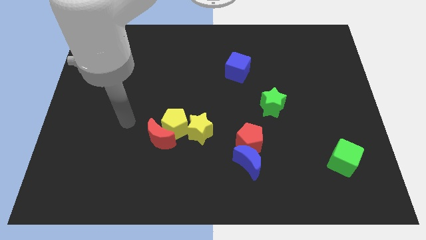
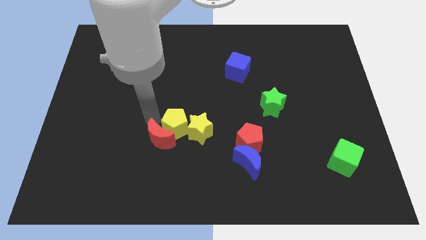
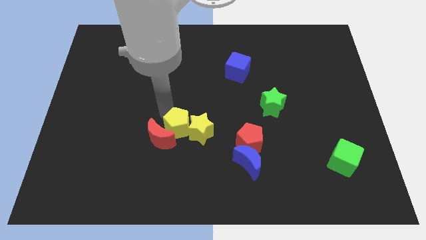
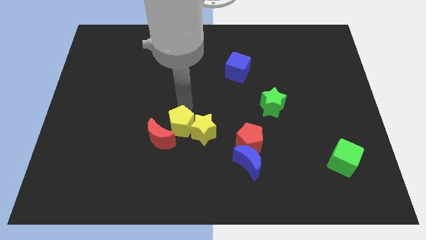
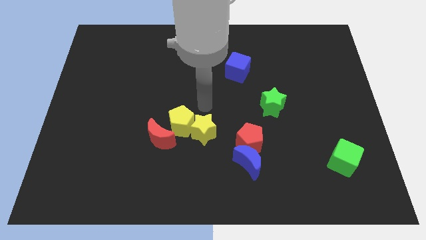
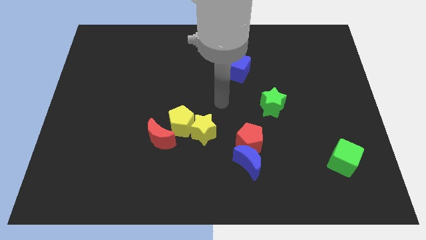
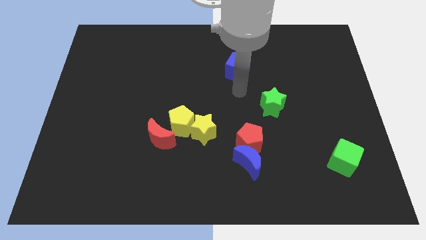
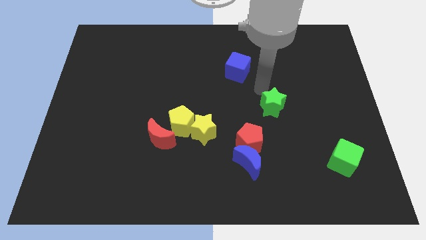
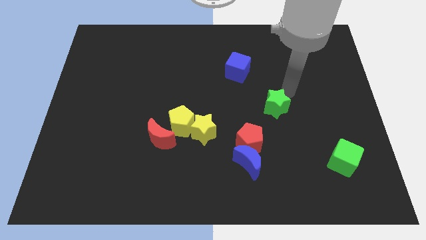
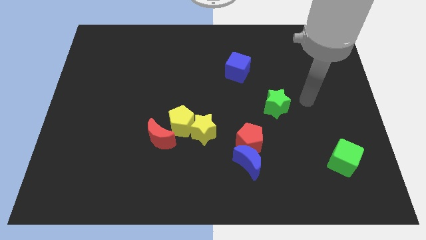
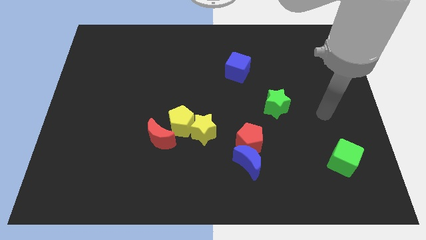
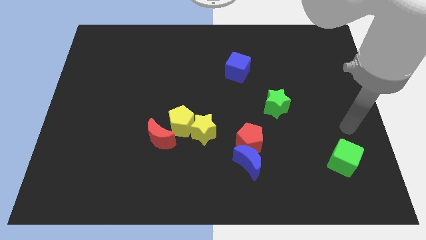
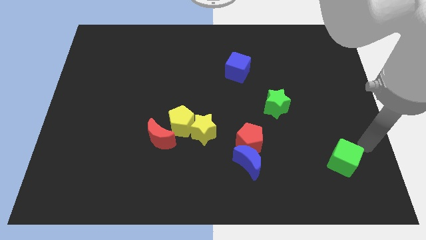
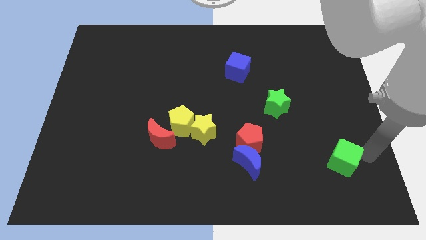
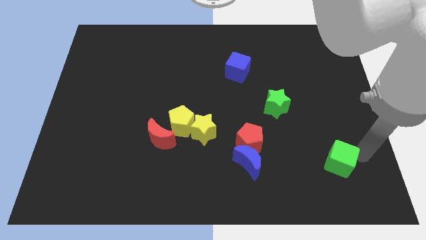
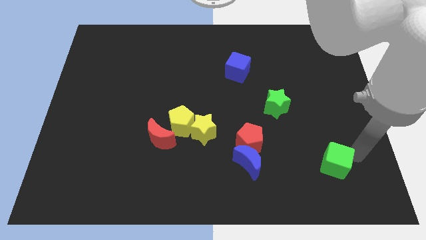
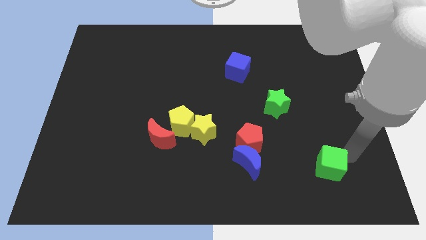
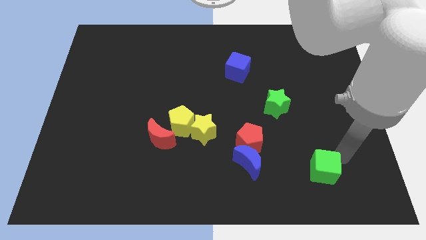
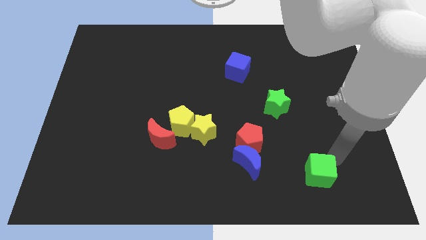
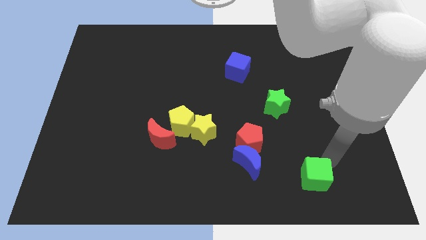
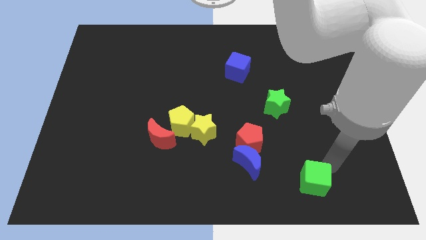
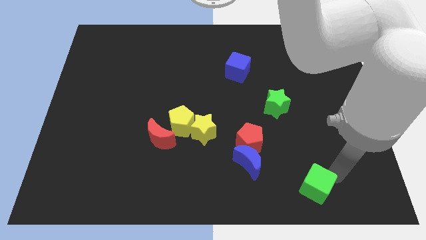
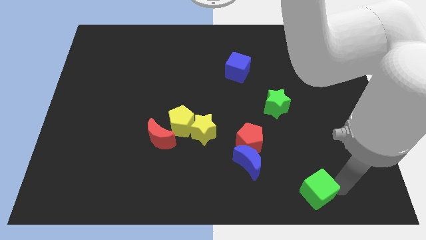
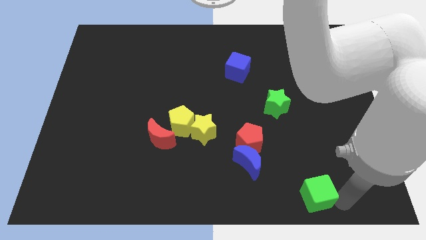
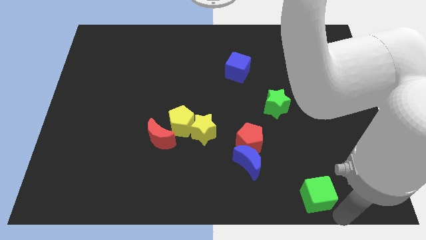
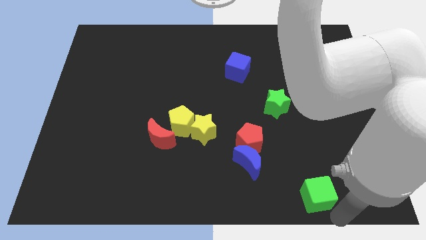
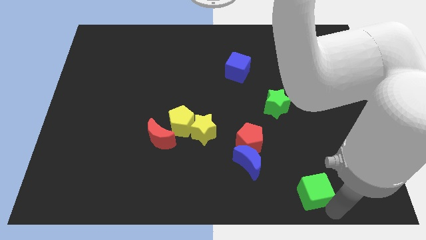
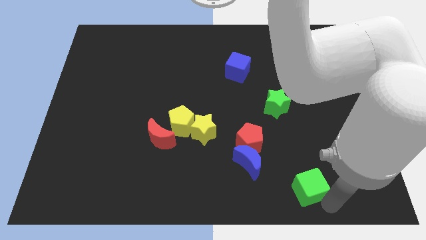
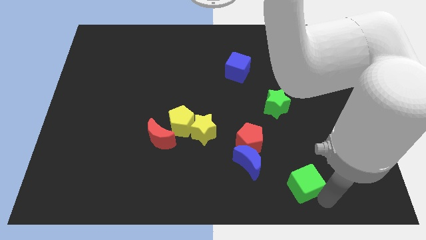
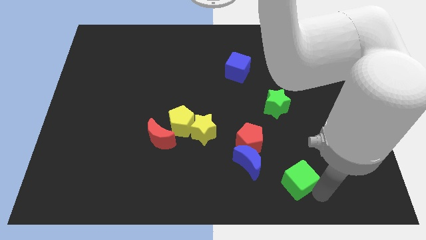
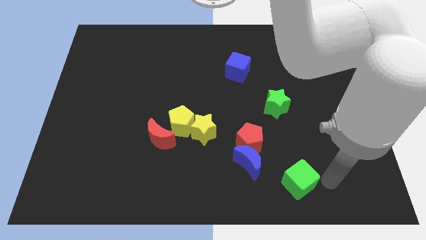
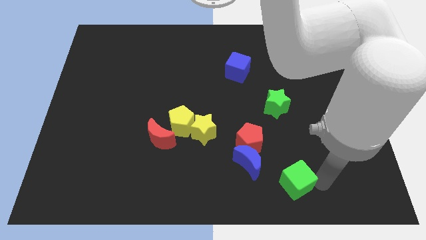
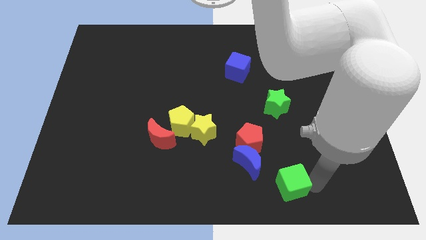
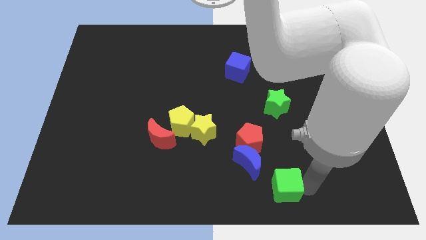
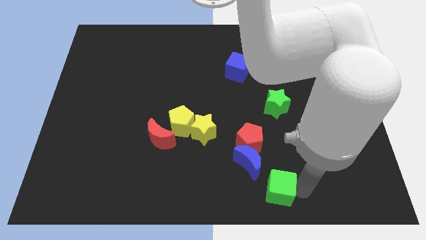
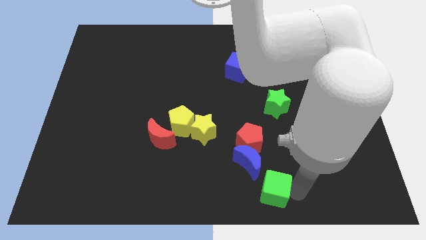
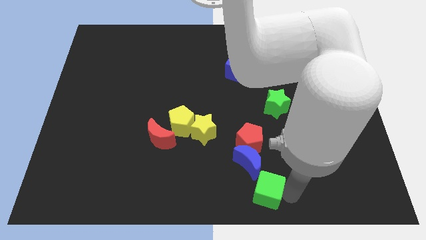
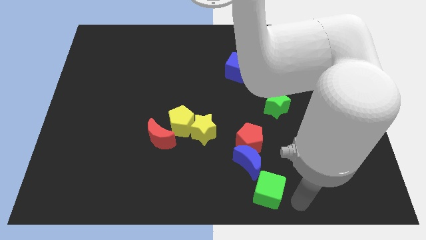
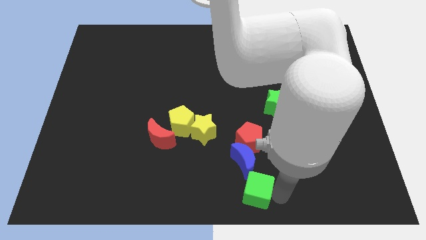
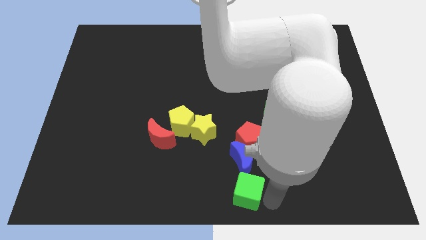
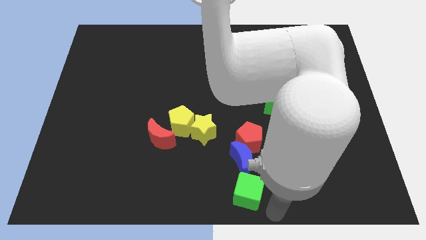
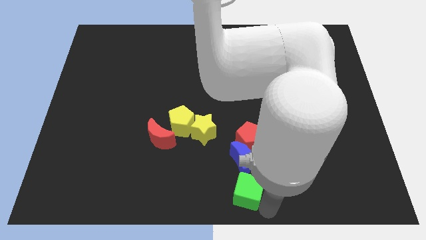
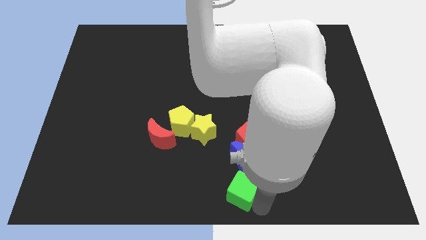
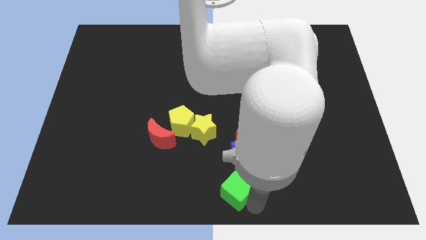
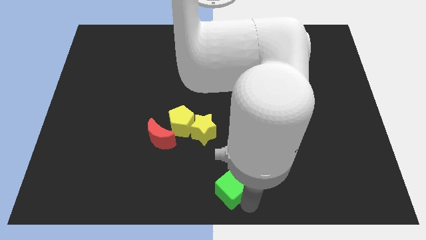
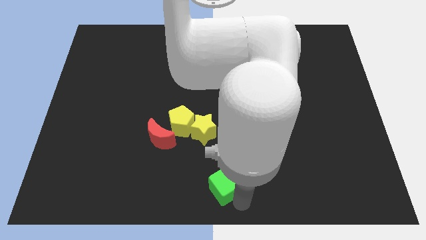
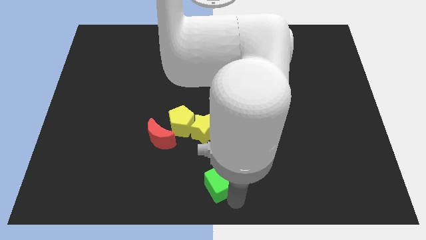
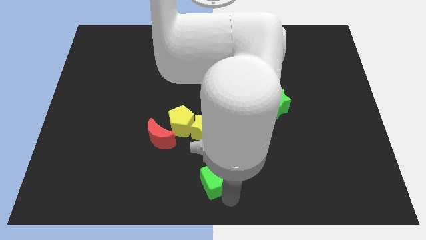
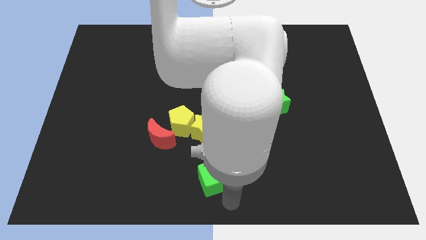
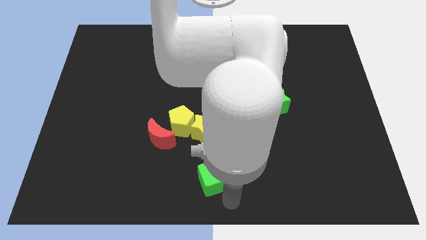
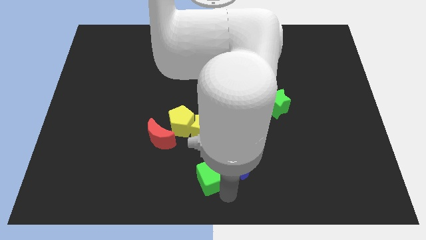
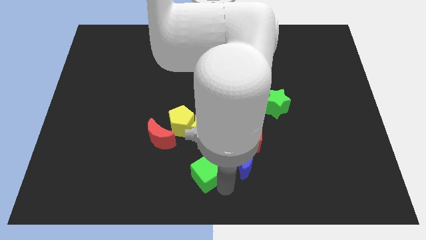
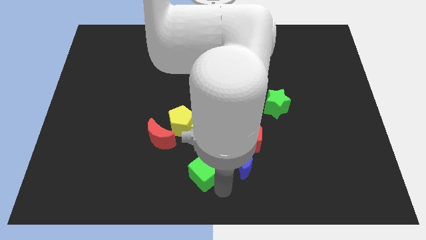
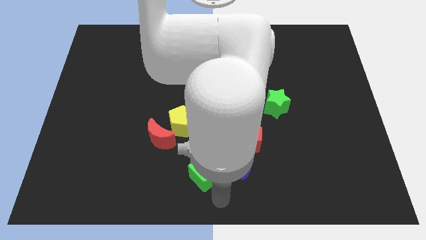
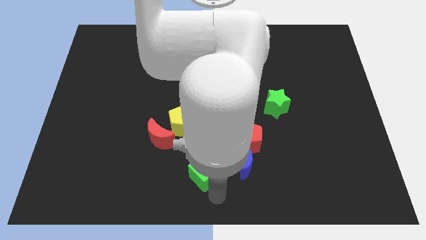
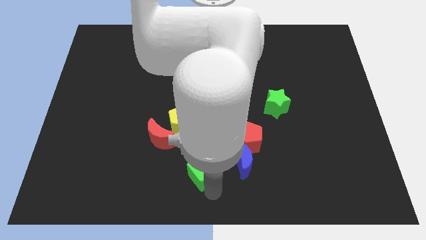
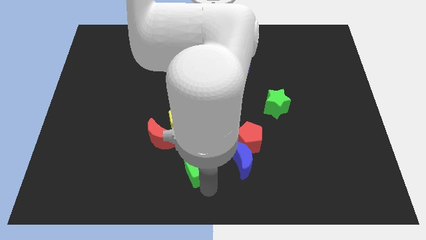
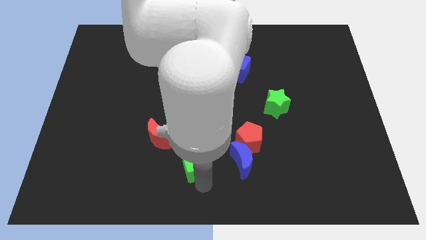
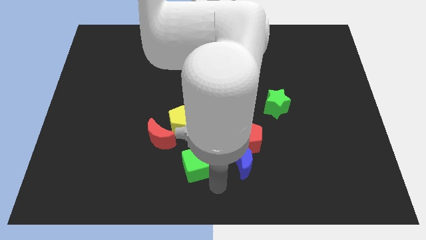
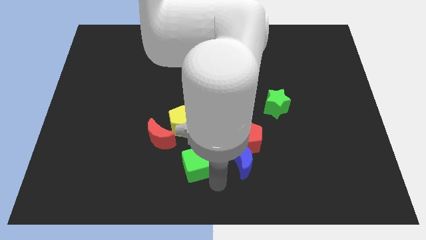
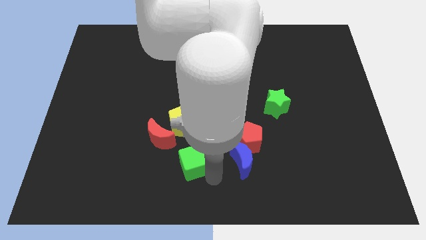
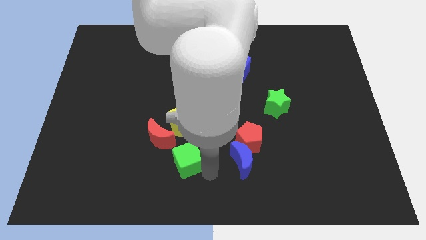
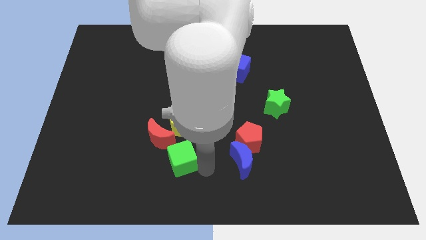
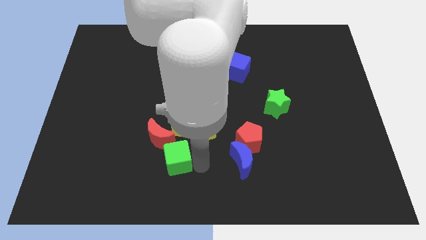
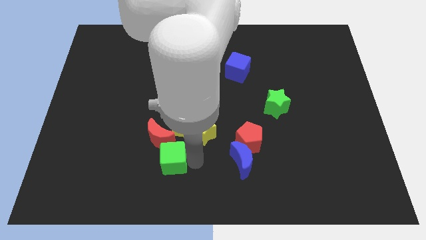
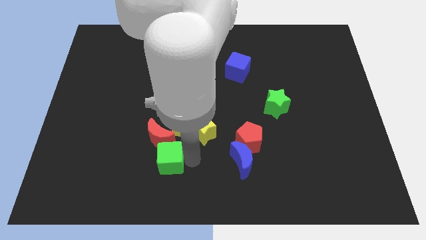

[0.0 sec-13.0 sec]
slide the green cube next to the red moon

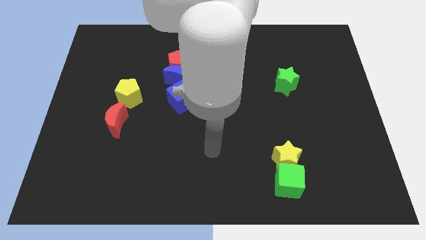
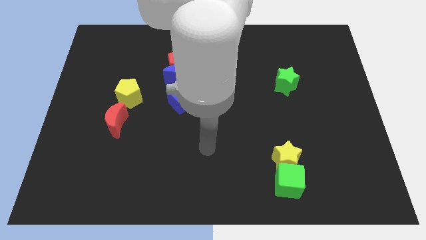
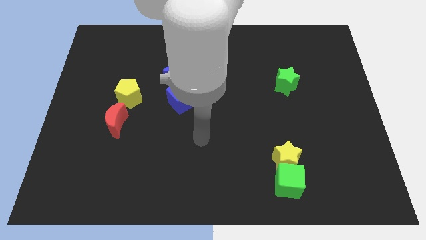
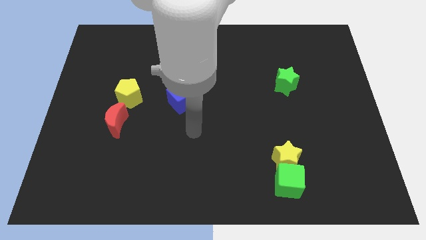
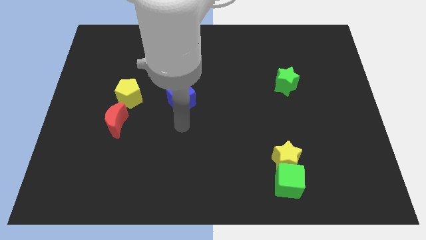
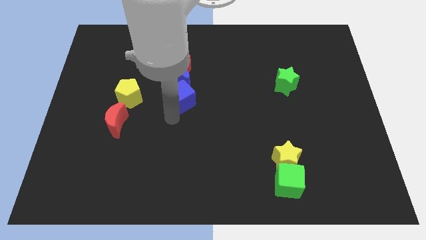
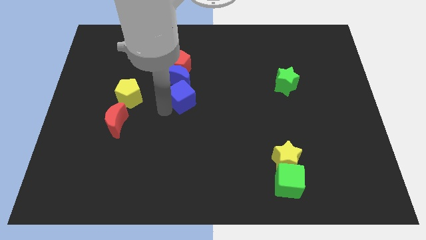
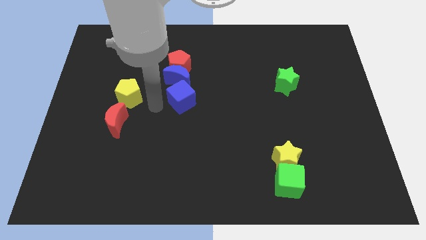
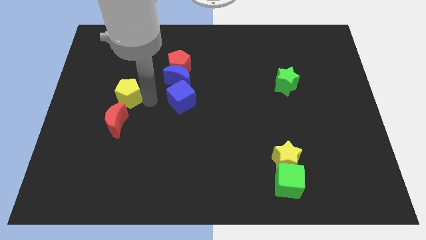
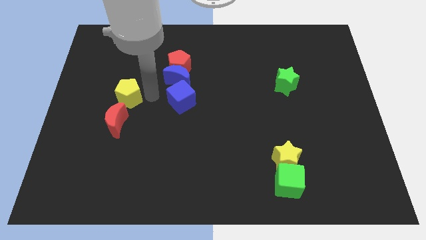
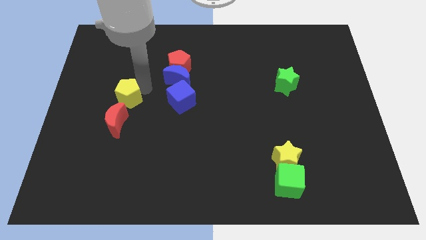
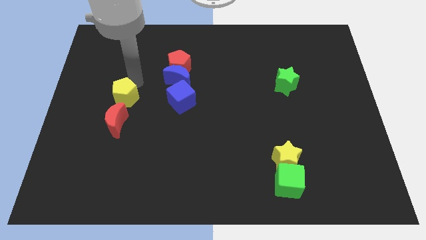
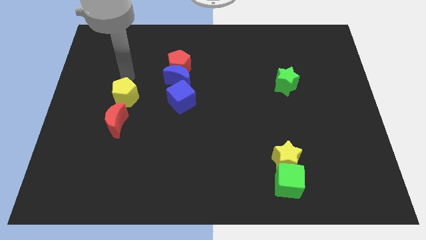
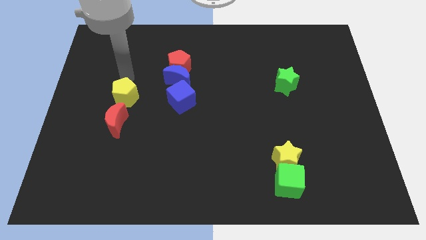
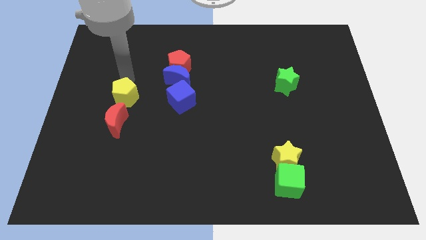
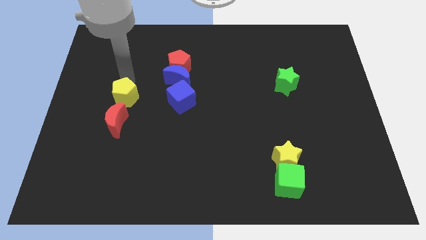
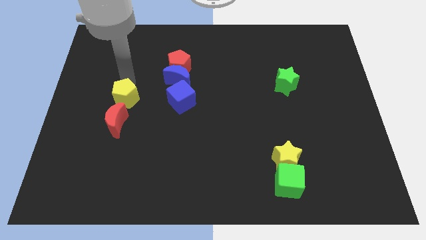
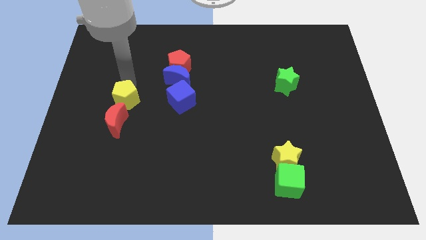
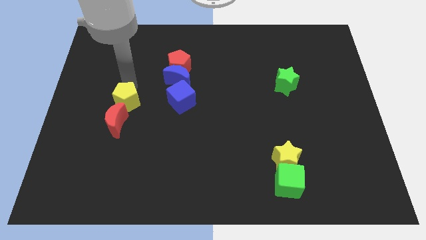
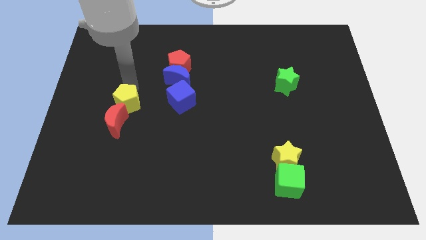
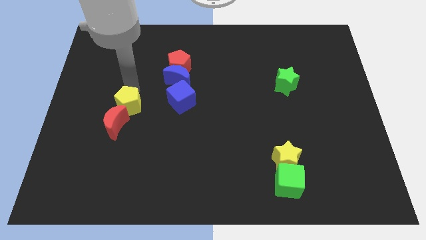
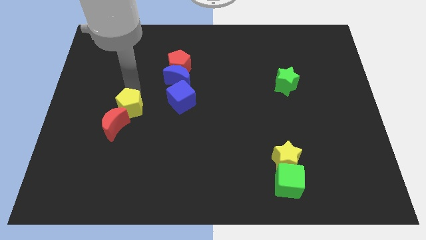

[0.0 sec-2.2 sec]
move the yellow pentagon to the red moon
